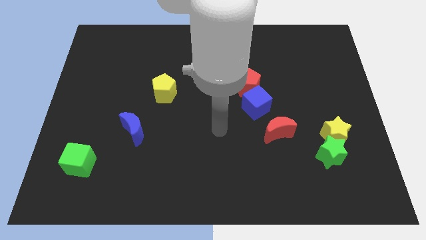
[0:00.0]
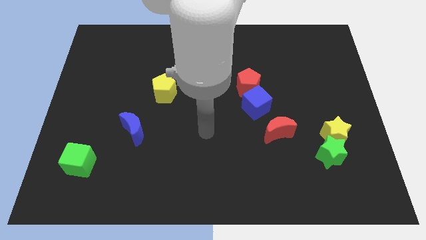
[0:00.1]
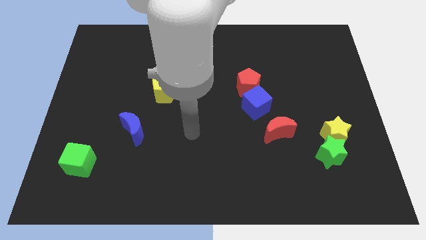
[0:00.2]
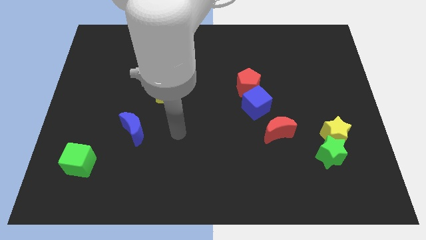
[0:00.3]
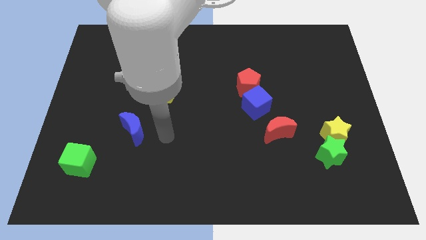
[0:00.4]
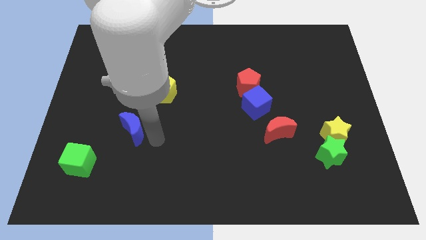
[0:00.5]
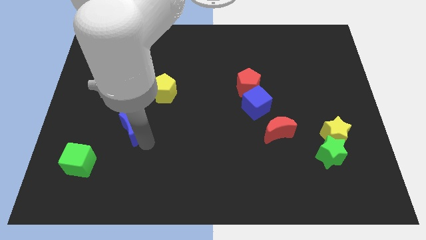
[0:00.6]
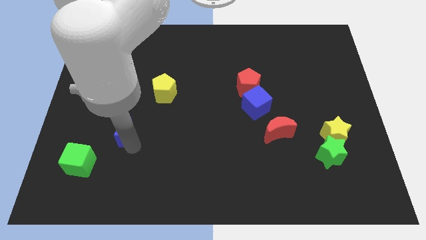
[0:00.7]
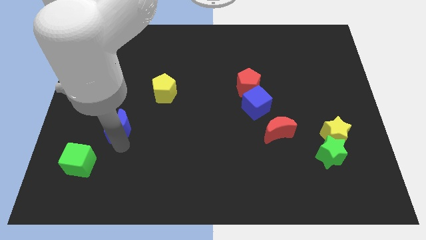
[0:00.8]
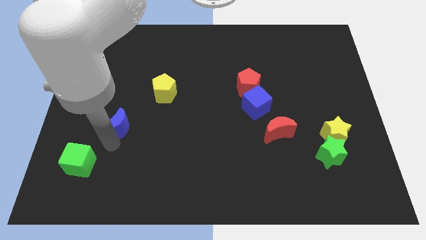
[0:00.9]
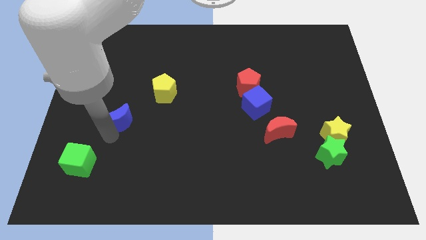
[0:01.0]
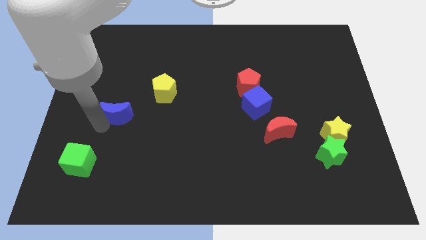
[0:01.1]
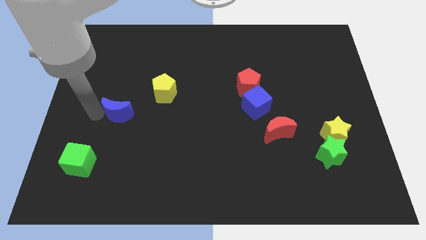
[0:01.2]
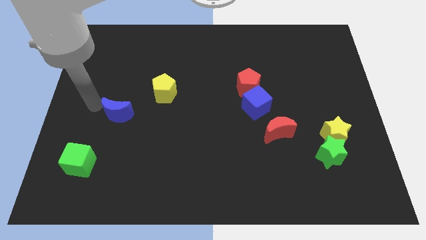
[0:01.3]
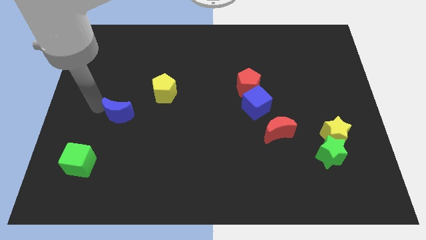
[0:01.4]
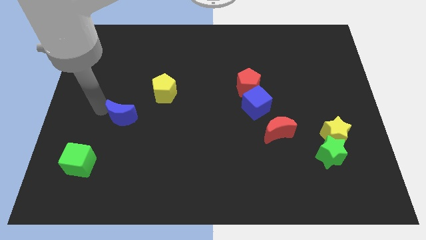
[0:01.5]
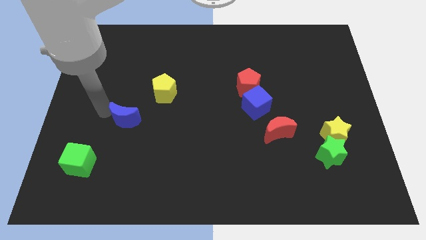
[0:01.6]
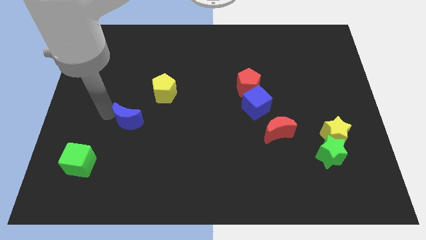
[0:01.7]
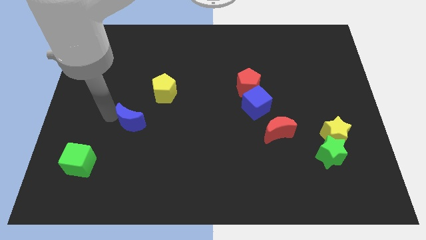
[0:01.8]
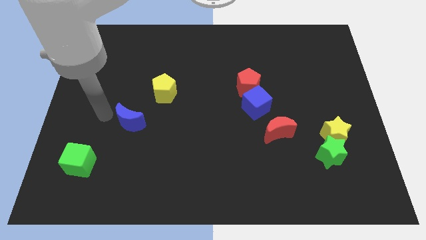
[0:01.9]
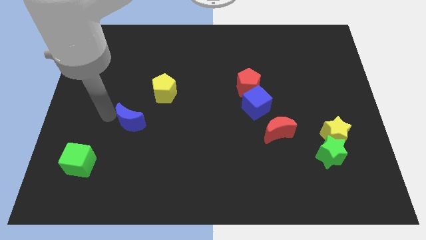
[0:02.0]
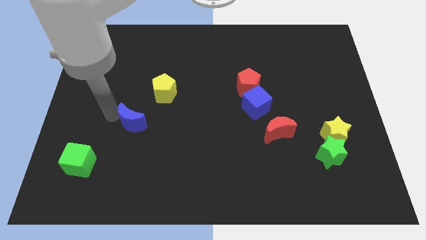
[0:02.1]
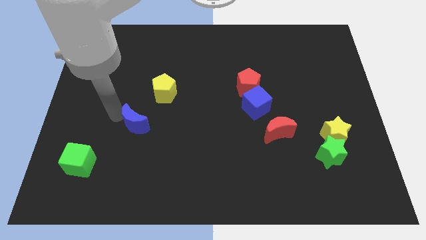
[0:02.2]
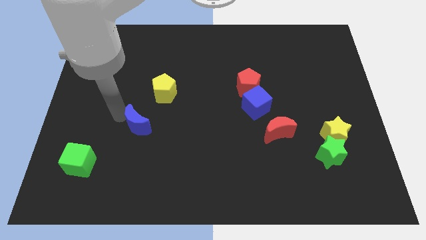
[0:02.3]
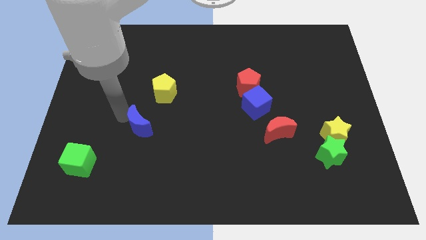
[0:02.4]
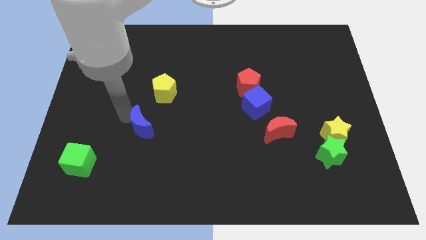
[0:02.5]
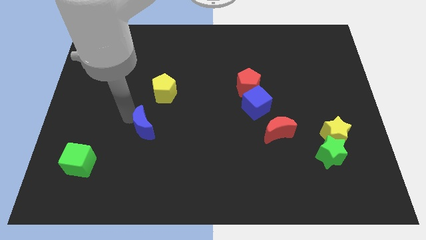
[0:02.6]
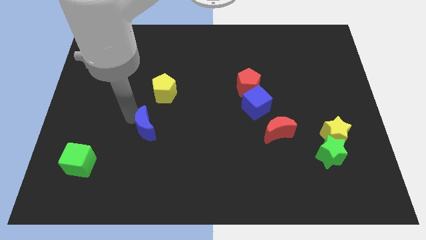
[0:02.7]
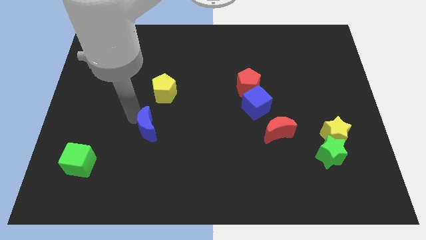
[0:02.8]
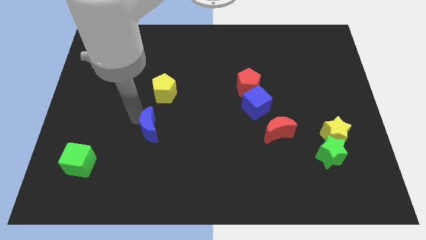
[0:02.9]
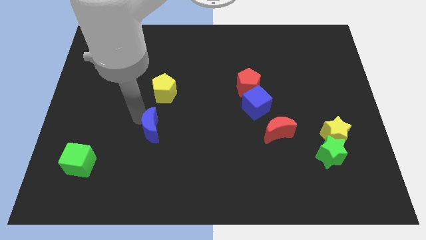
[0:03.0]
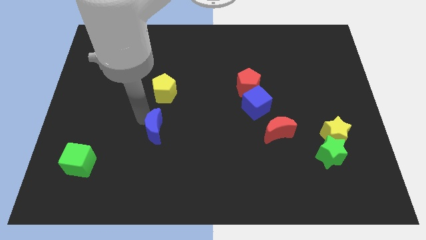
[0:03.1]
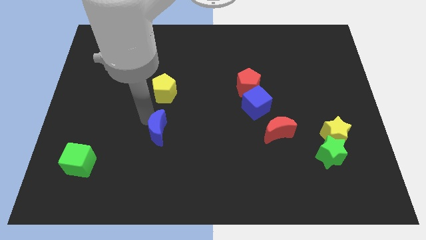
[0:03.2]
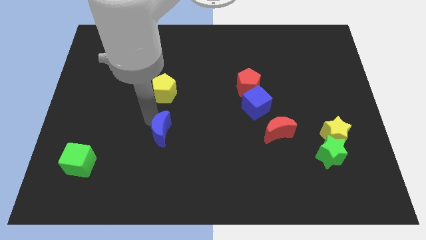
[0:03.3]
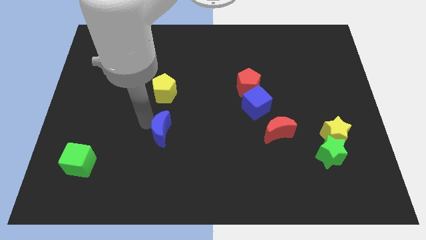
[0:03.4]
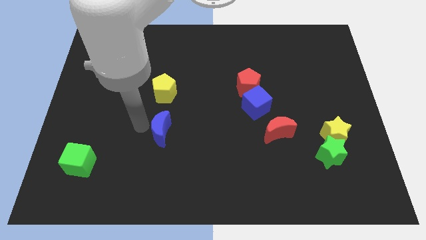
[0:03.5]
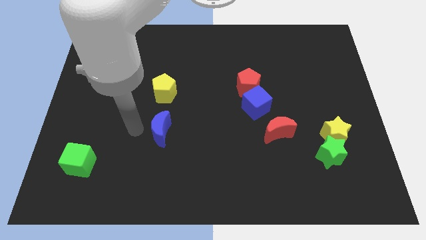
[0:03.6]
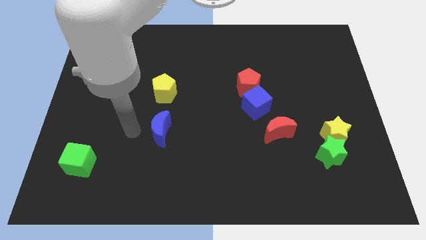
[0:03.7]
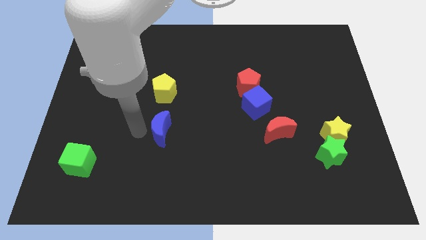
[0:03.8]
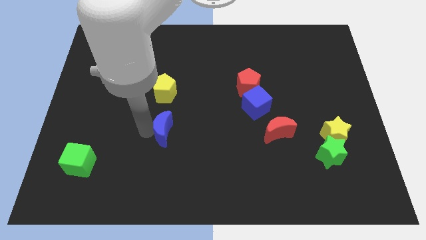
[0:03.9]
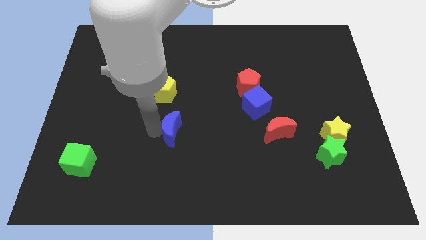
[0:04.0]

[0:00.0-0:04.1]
slightly move the blue moon to the right

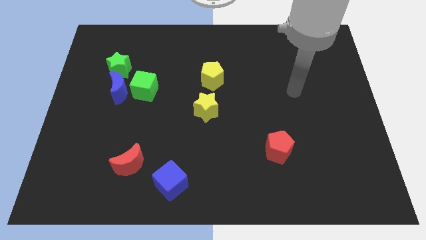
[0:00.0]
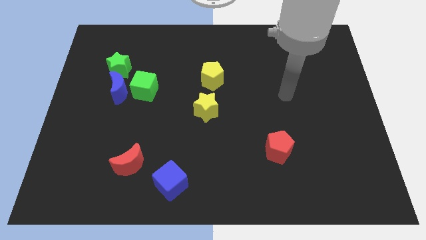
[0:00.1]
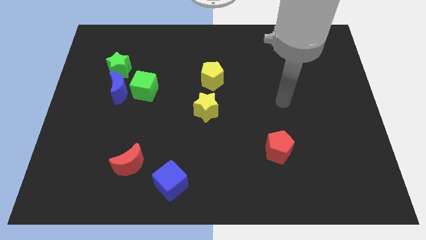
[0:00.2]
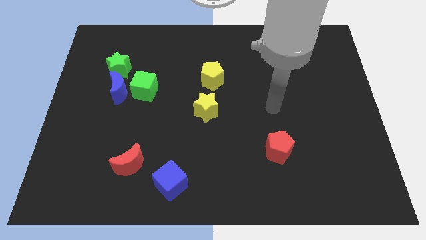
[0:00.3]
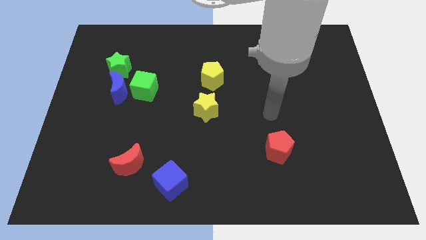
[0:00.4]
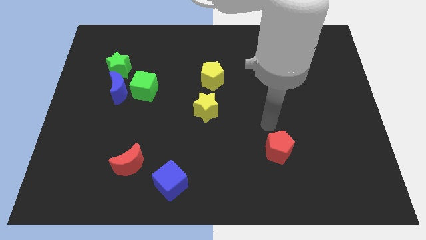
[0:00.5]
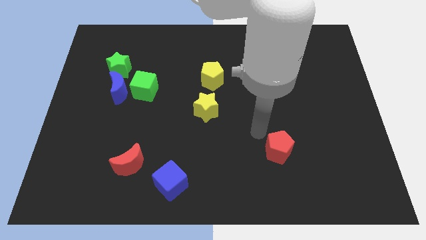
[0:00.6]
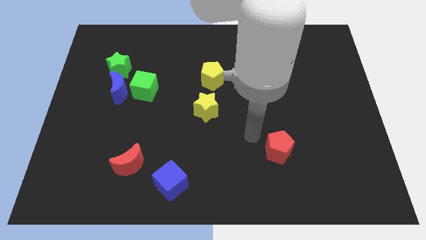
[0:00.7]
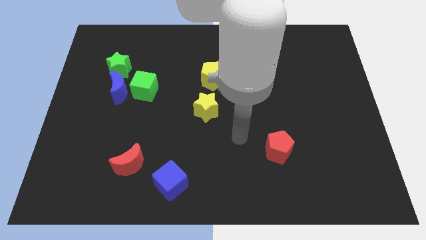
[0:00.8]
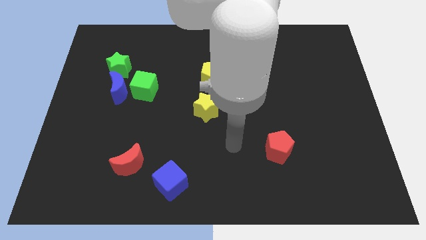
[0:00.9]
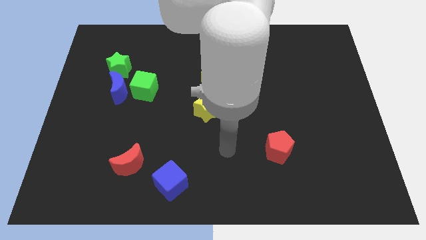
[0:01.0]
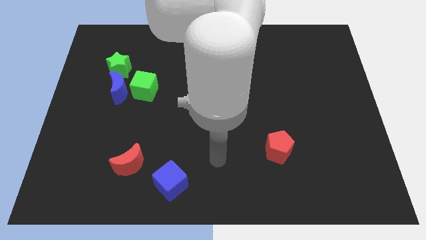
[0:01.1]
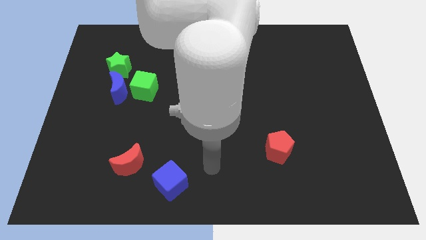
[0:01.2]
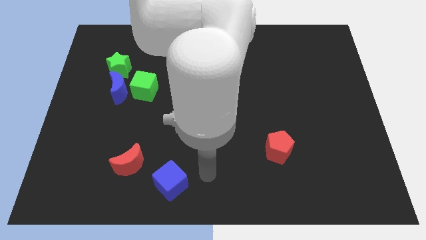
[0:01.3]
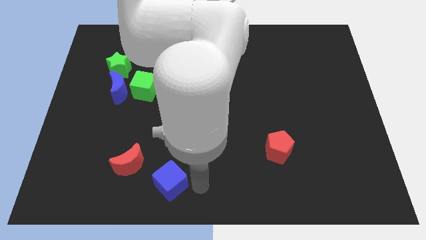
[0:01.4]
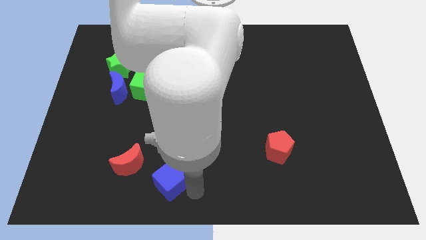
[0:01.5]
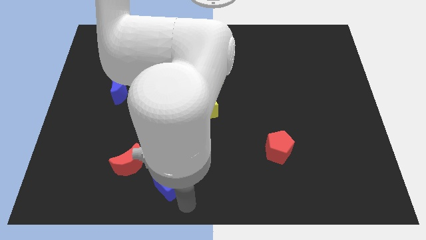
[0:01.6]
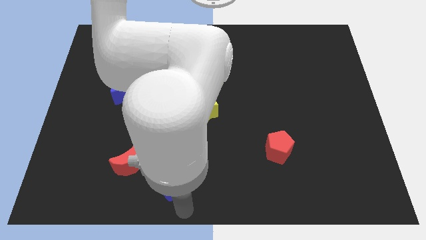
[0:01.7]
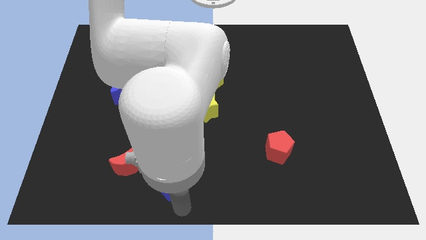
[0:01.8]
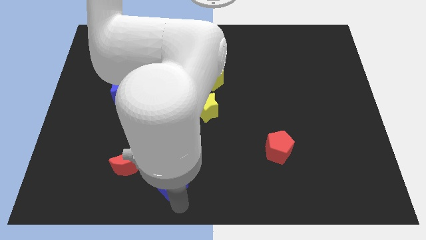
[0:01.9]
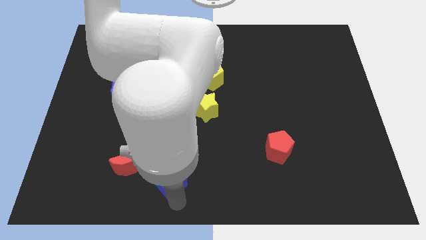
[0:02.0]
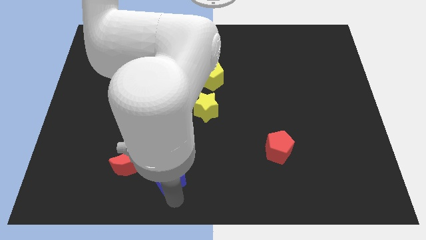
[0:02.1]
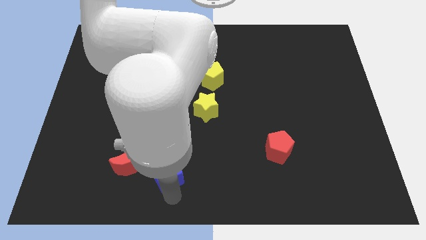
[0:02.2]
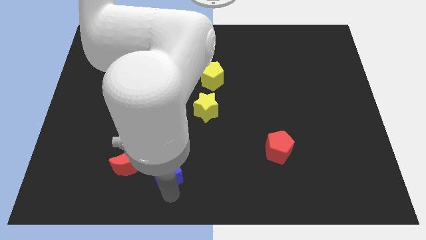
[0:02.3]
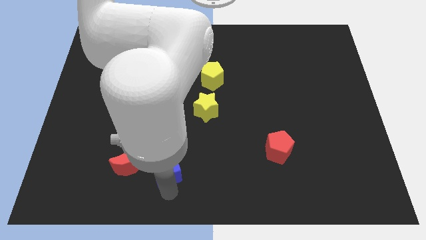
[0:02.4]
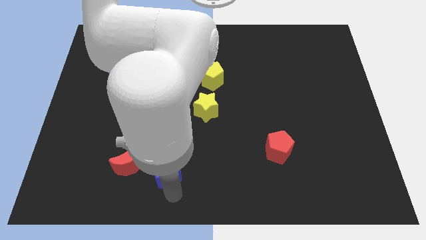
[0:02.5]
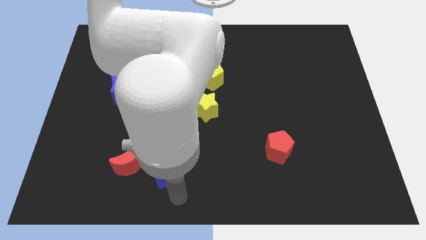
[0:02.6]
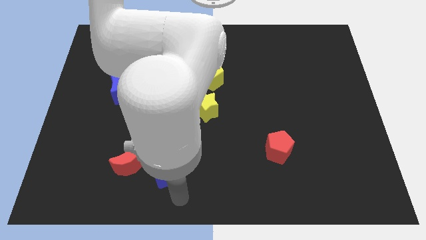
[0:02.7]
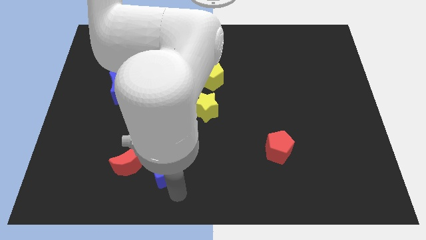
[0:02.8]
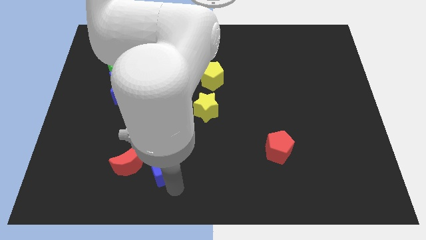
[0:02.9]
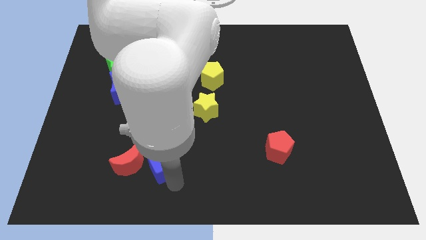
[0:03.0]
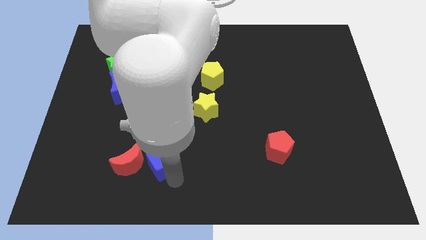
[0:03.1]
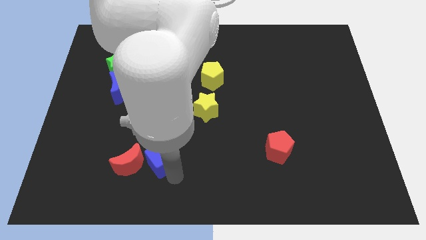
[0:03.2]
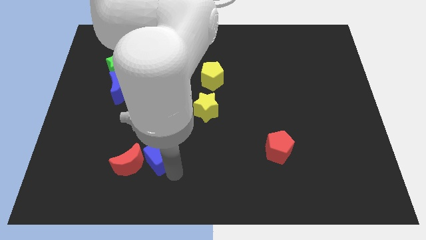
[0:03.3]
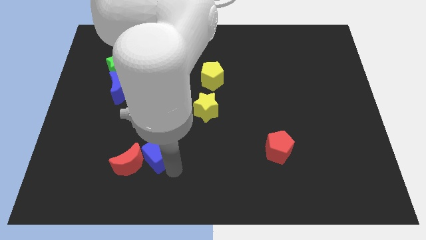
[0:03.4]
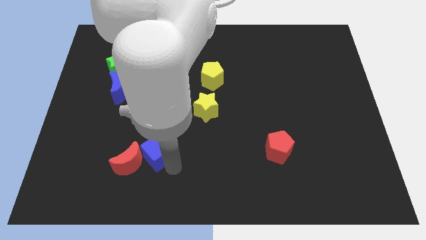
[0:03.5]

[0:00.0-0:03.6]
slightly slide the blue cube upwards and to the left

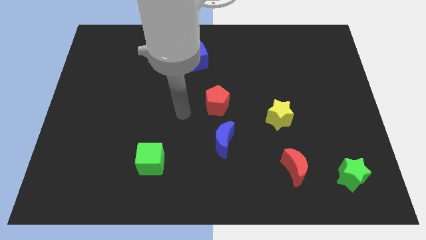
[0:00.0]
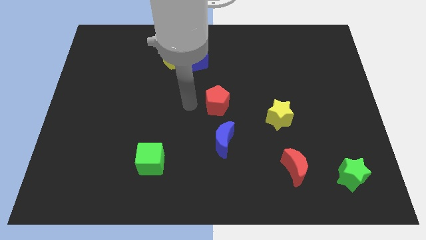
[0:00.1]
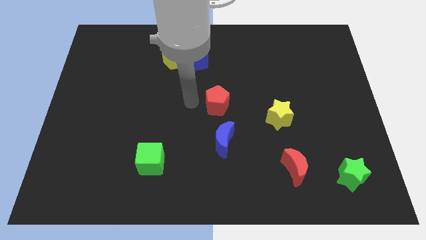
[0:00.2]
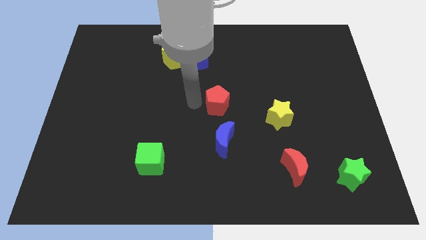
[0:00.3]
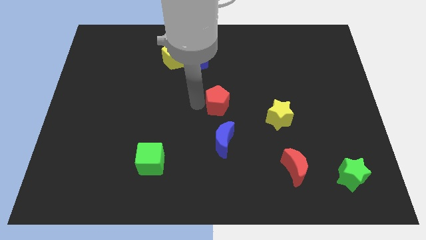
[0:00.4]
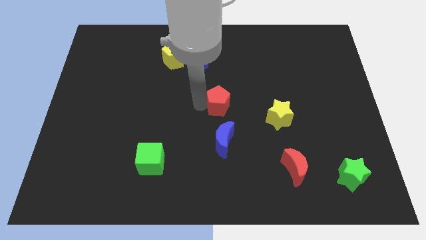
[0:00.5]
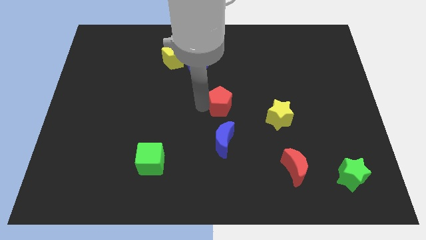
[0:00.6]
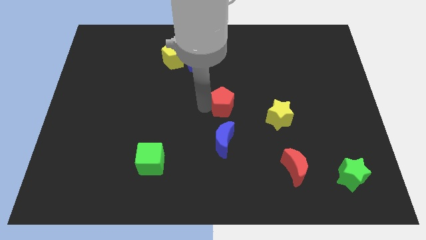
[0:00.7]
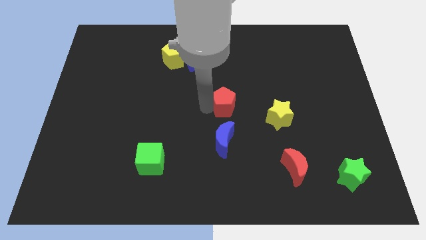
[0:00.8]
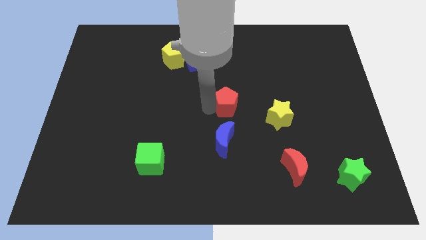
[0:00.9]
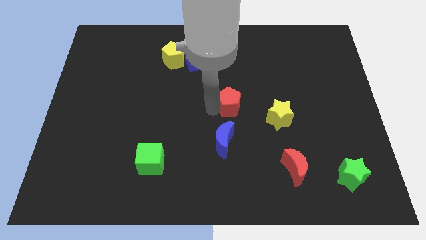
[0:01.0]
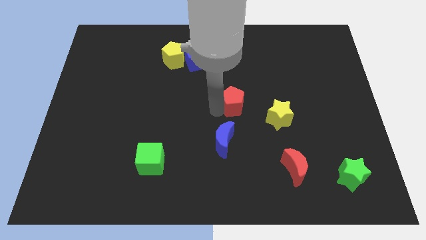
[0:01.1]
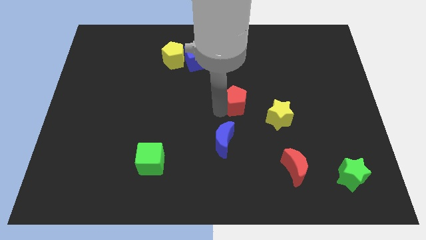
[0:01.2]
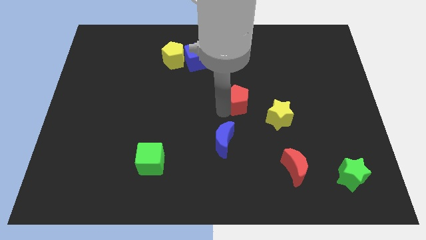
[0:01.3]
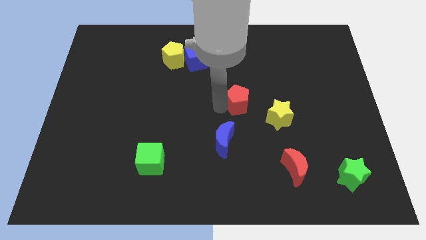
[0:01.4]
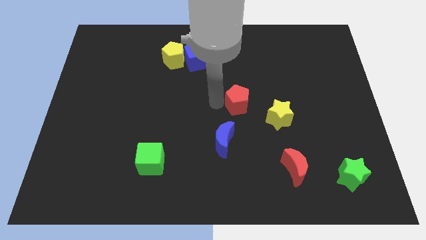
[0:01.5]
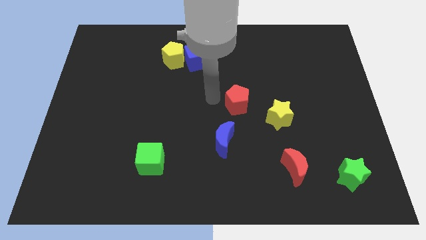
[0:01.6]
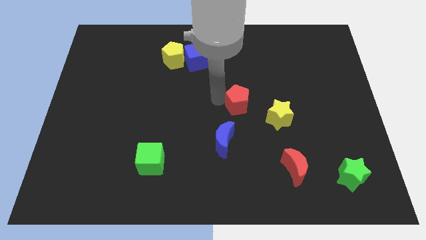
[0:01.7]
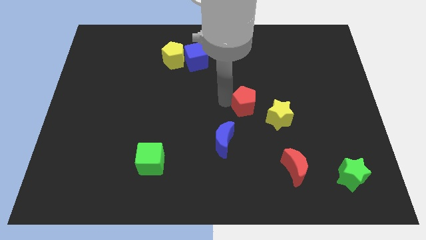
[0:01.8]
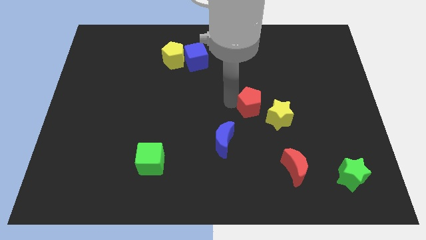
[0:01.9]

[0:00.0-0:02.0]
slide the red pentagon somewhat to the right
